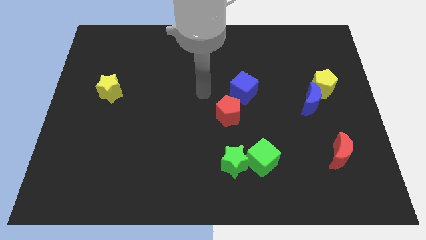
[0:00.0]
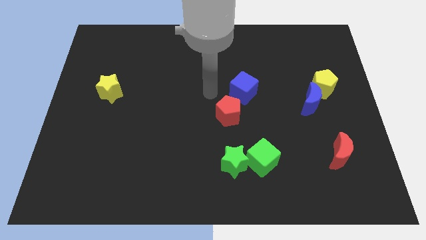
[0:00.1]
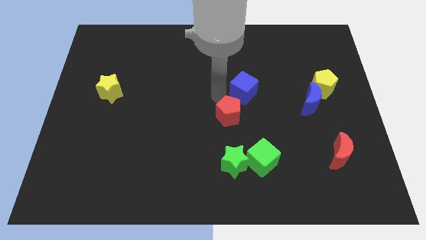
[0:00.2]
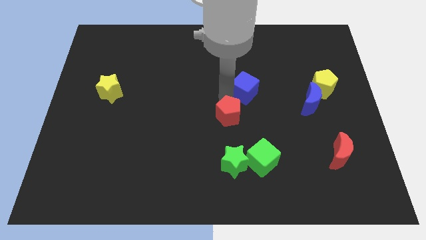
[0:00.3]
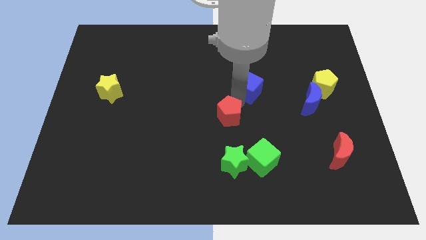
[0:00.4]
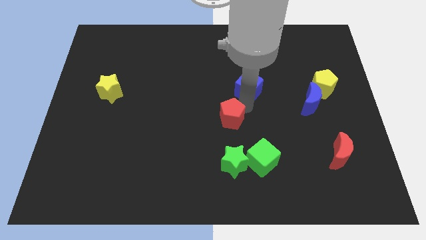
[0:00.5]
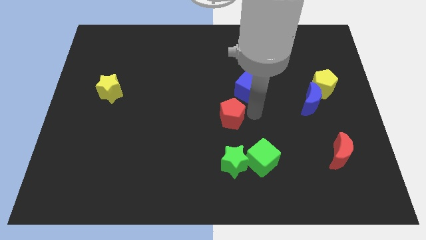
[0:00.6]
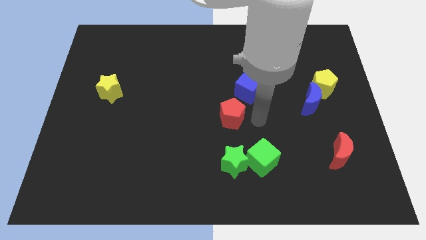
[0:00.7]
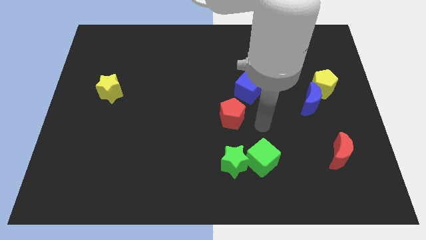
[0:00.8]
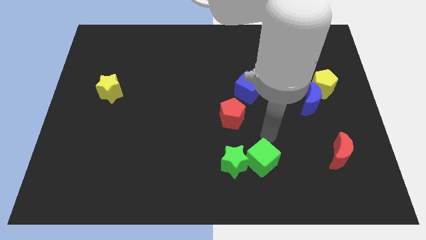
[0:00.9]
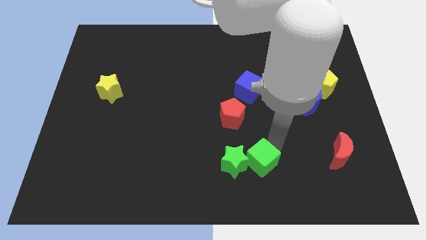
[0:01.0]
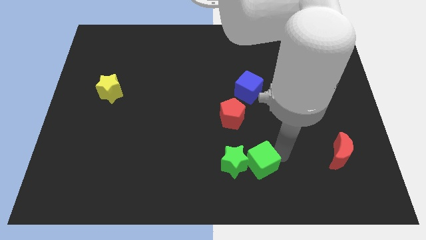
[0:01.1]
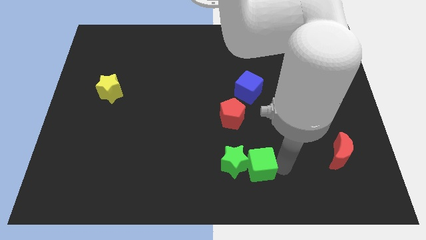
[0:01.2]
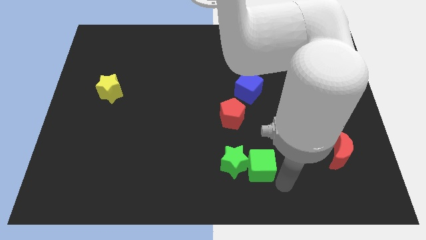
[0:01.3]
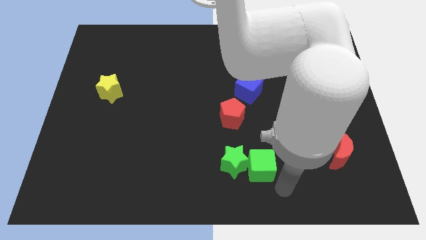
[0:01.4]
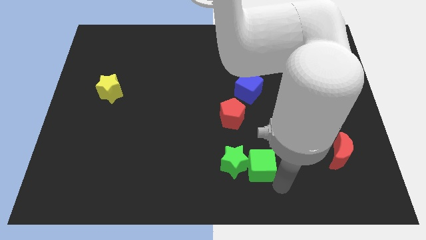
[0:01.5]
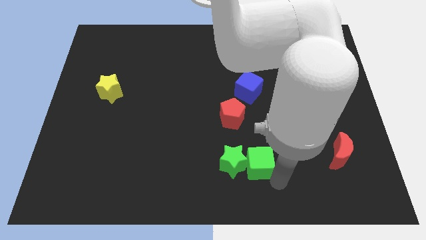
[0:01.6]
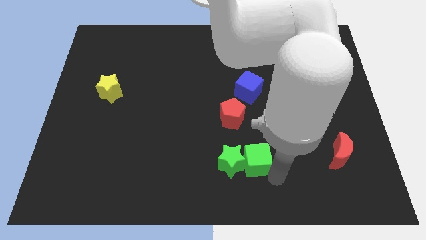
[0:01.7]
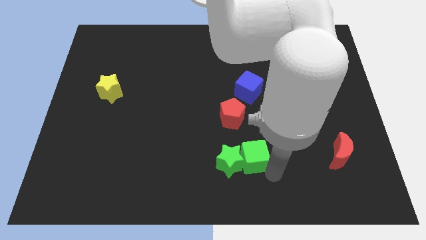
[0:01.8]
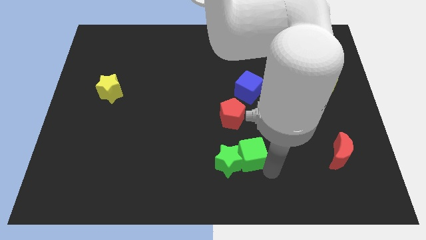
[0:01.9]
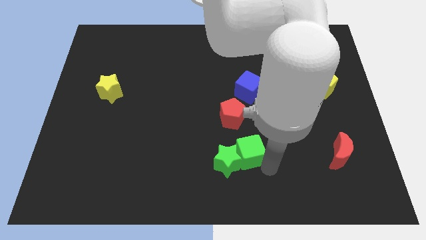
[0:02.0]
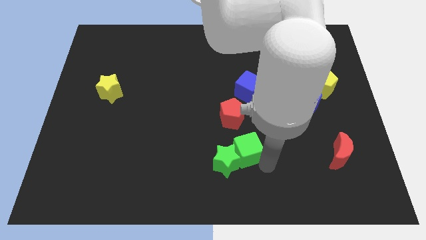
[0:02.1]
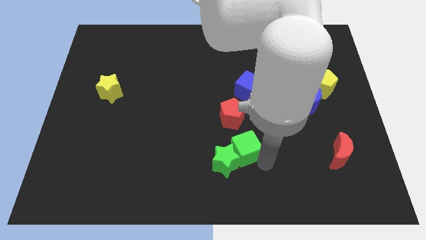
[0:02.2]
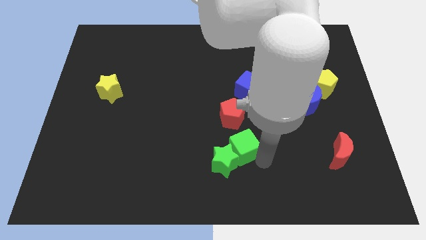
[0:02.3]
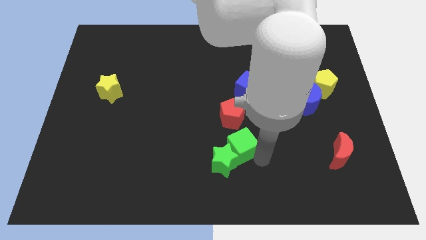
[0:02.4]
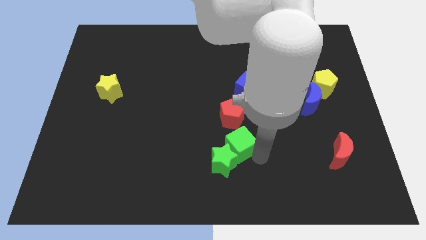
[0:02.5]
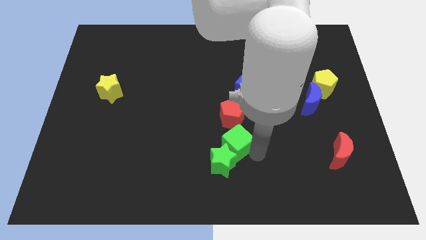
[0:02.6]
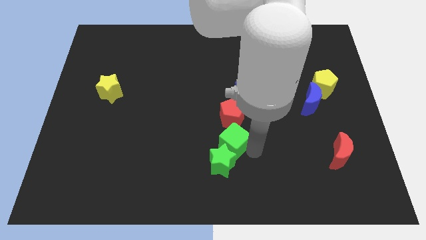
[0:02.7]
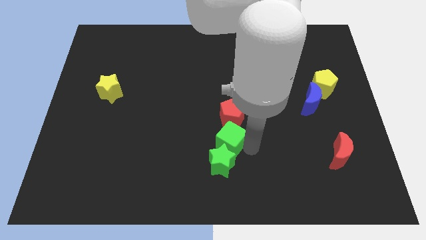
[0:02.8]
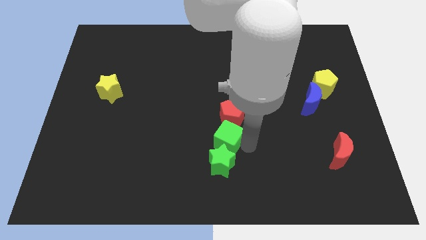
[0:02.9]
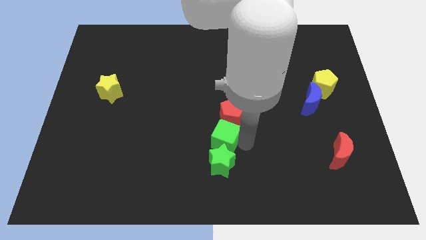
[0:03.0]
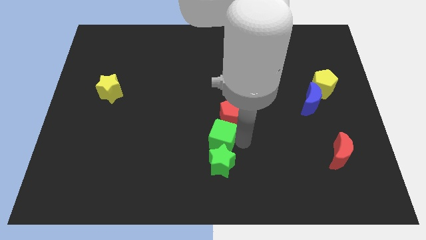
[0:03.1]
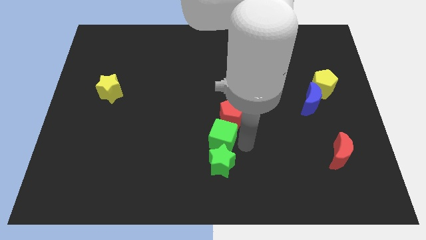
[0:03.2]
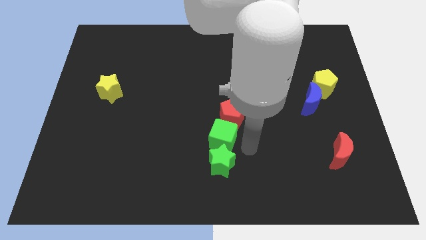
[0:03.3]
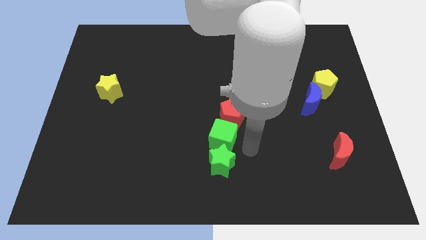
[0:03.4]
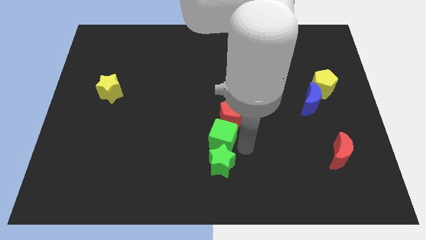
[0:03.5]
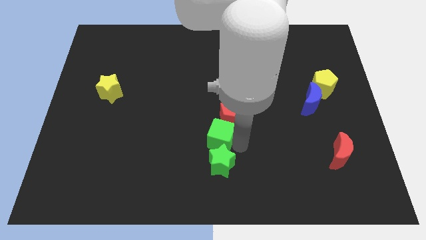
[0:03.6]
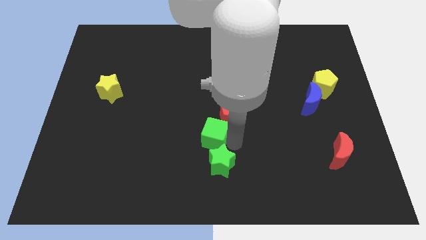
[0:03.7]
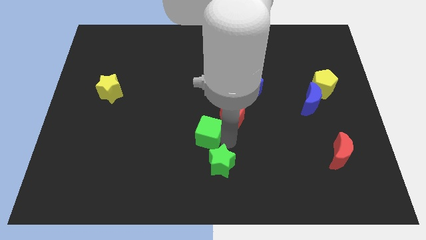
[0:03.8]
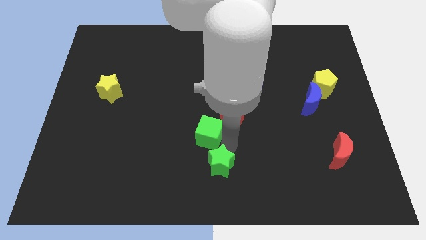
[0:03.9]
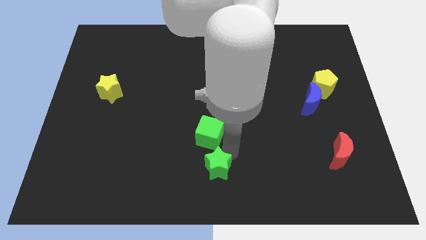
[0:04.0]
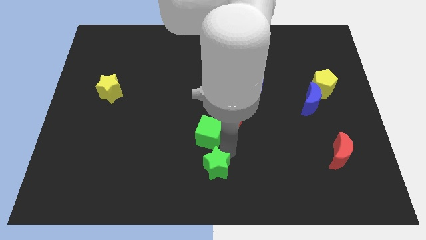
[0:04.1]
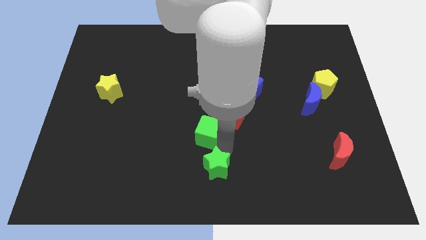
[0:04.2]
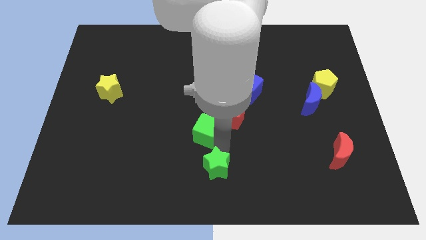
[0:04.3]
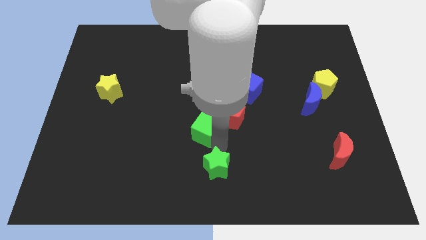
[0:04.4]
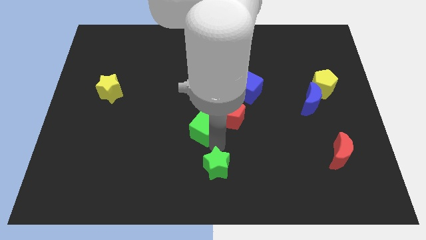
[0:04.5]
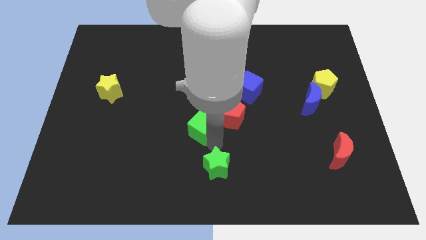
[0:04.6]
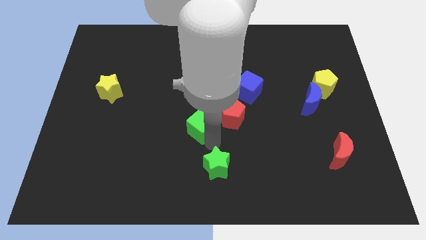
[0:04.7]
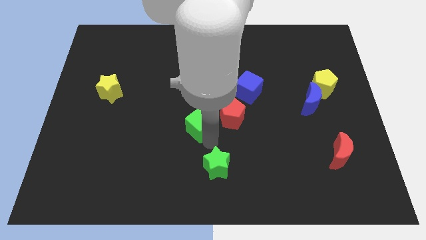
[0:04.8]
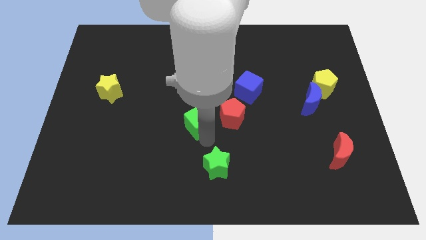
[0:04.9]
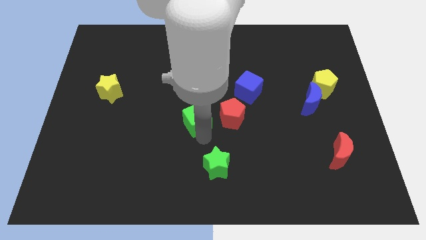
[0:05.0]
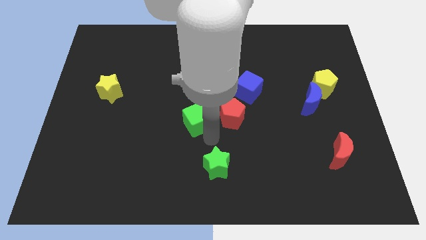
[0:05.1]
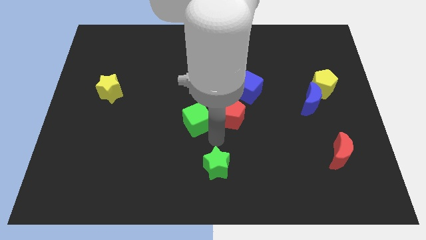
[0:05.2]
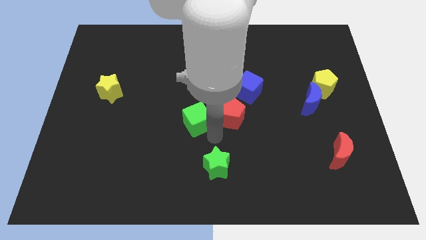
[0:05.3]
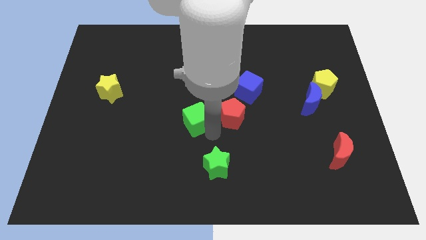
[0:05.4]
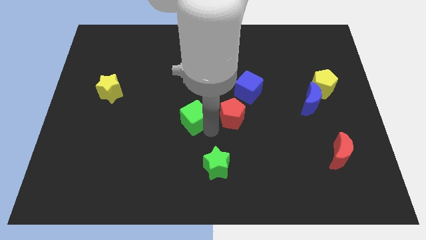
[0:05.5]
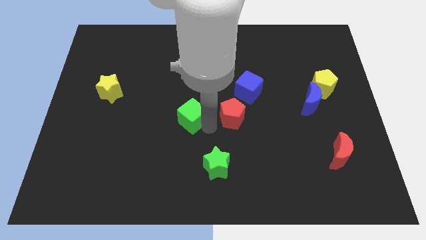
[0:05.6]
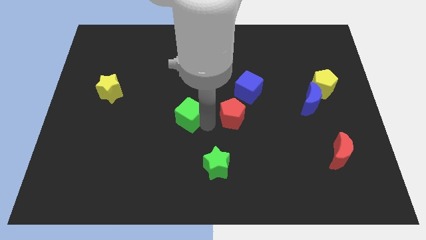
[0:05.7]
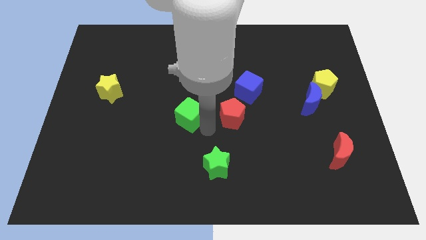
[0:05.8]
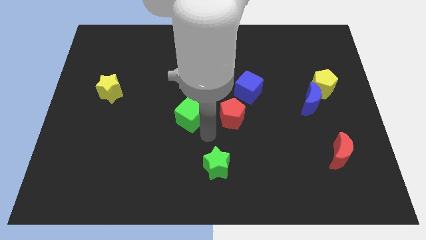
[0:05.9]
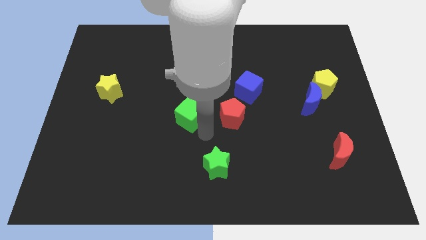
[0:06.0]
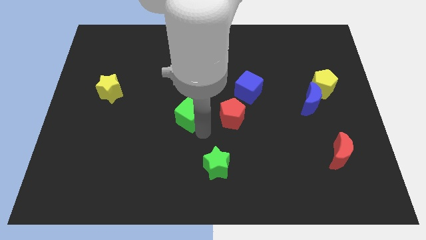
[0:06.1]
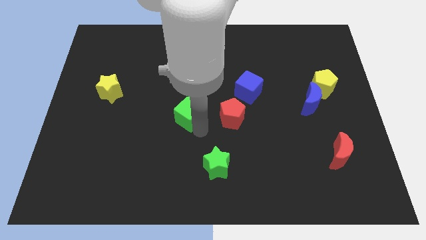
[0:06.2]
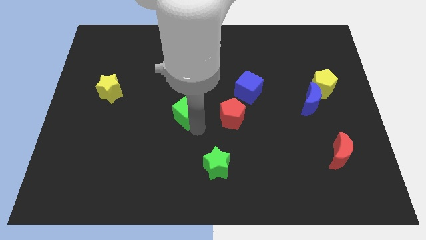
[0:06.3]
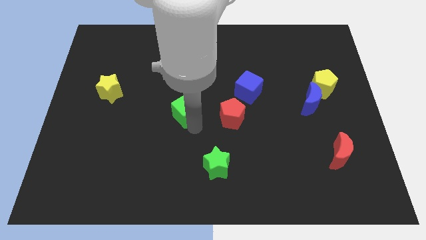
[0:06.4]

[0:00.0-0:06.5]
slide the green cube up and left diagonally

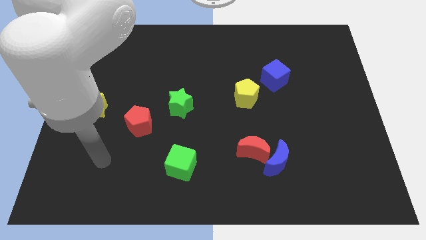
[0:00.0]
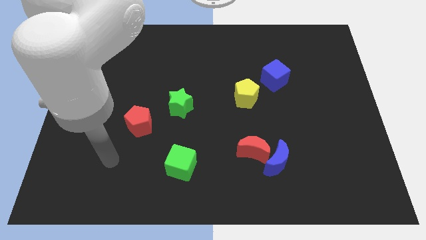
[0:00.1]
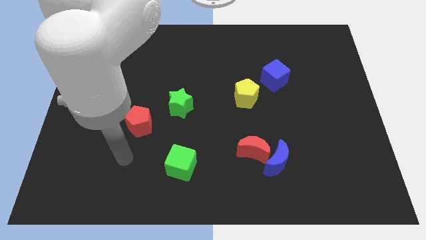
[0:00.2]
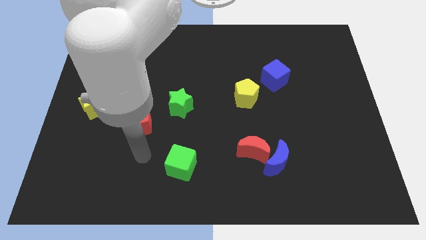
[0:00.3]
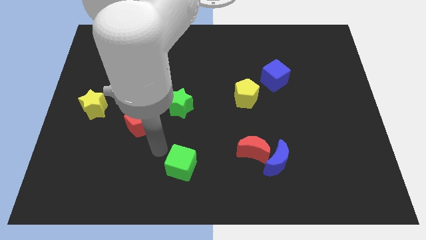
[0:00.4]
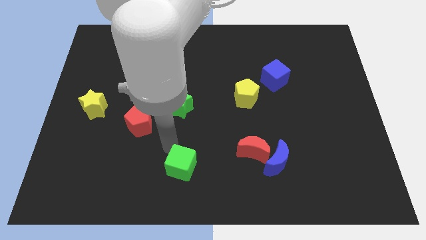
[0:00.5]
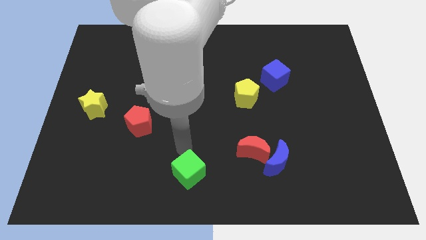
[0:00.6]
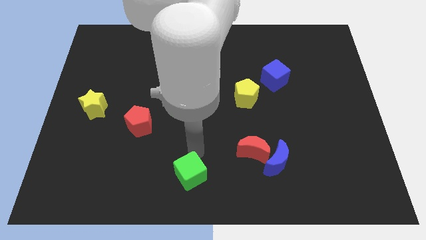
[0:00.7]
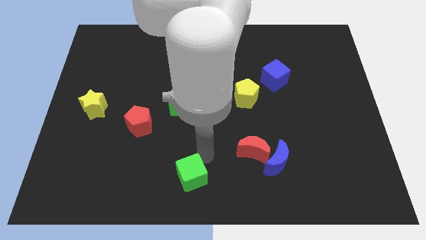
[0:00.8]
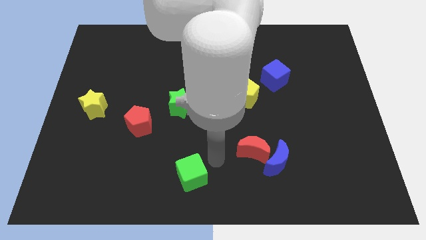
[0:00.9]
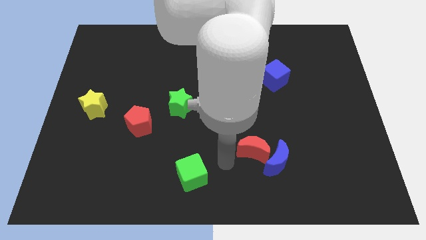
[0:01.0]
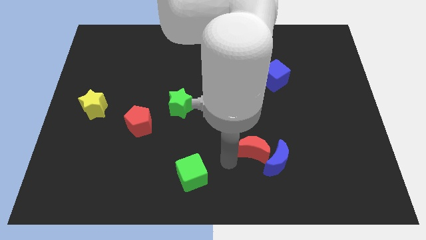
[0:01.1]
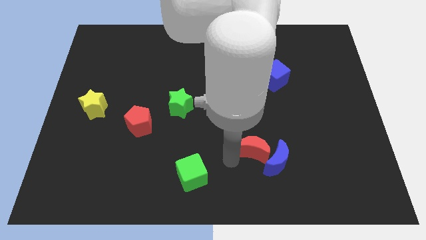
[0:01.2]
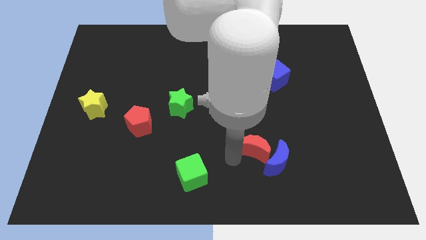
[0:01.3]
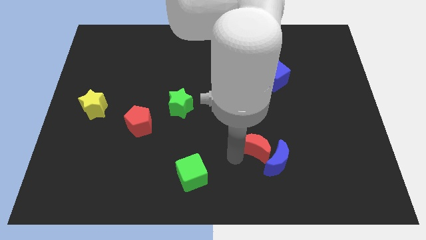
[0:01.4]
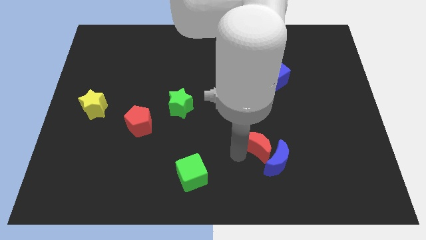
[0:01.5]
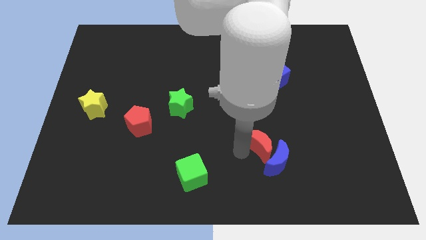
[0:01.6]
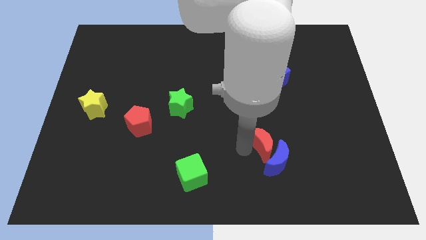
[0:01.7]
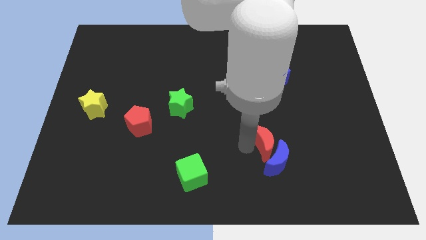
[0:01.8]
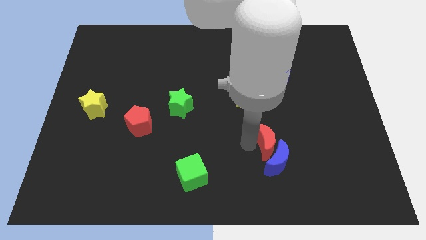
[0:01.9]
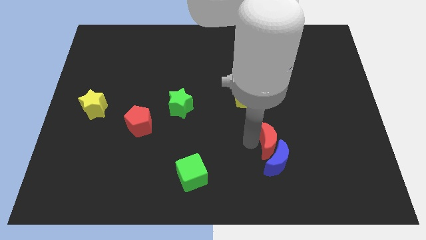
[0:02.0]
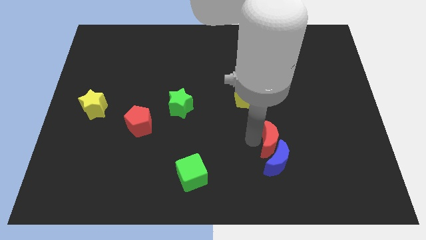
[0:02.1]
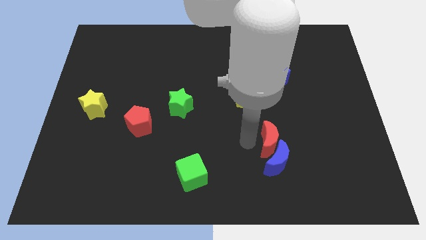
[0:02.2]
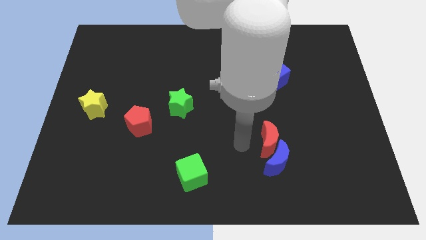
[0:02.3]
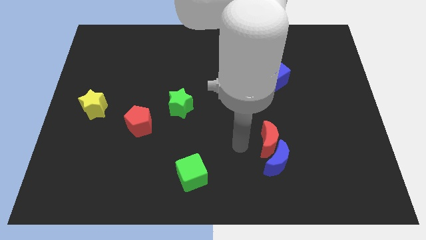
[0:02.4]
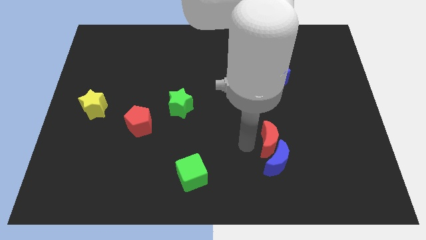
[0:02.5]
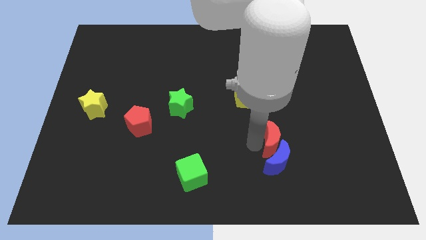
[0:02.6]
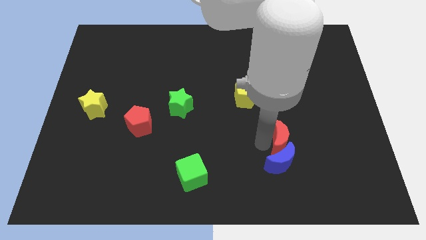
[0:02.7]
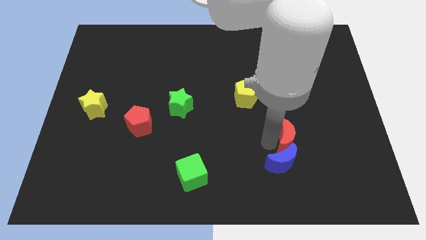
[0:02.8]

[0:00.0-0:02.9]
move the red moon right a little bit
